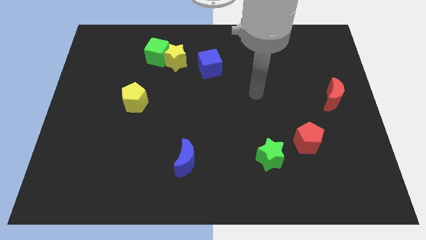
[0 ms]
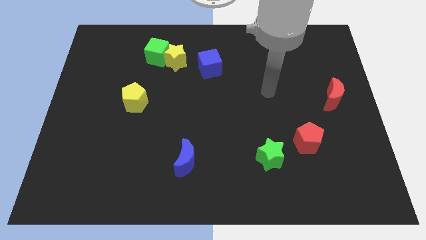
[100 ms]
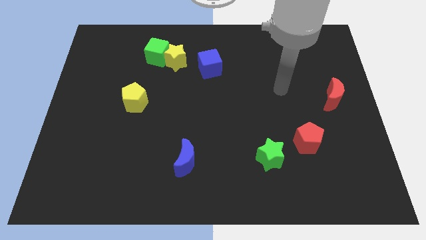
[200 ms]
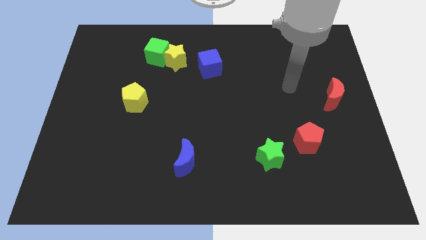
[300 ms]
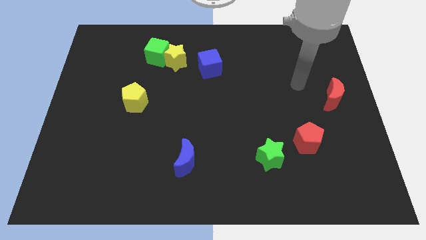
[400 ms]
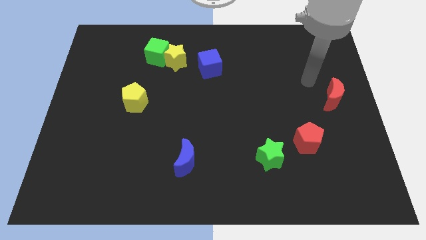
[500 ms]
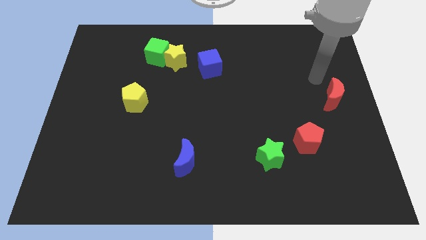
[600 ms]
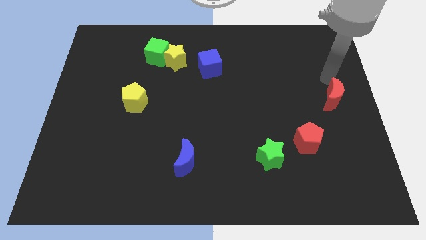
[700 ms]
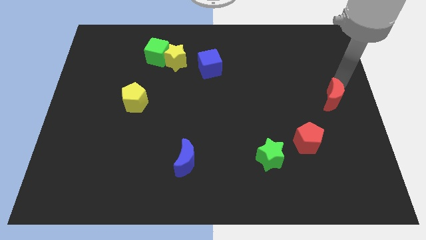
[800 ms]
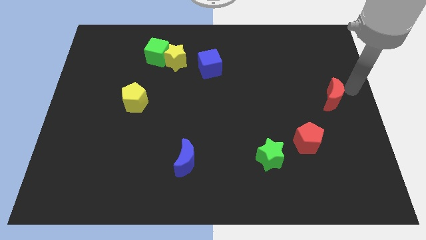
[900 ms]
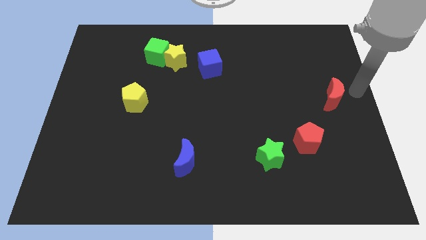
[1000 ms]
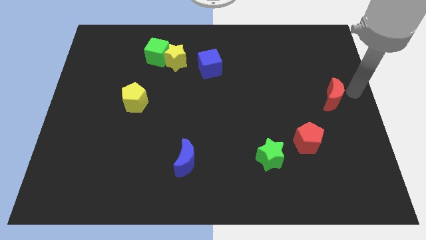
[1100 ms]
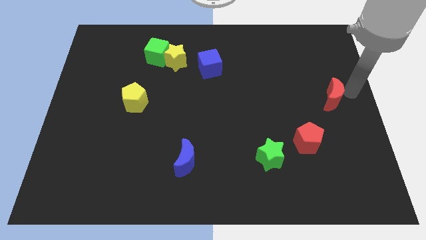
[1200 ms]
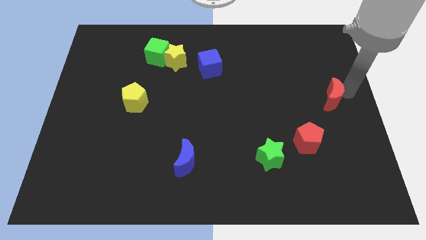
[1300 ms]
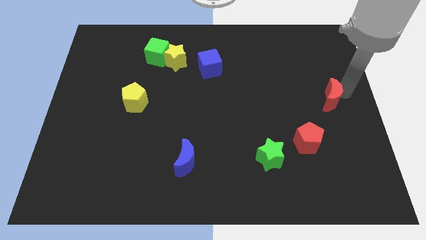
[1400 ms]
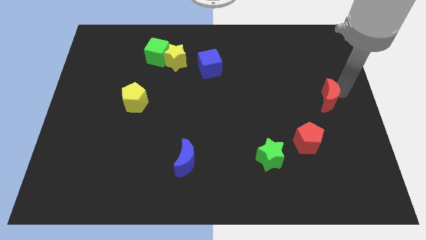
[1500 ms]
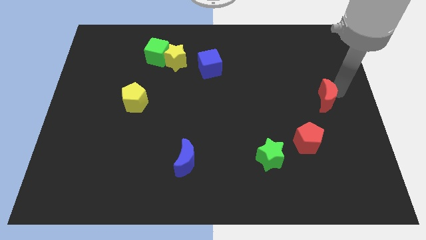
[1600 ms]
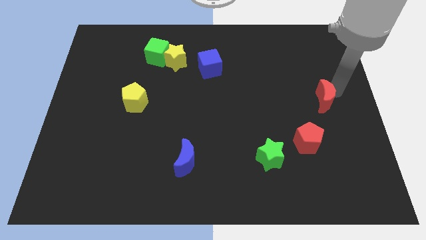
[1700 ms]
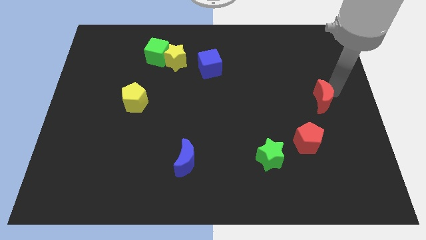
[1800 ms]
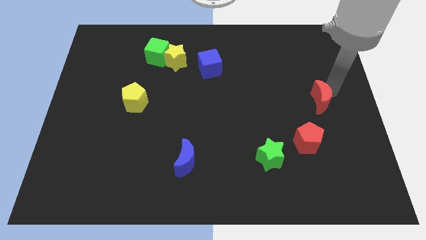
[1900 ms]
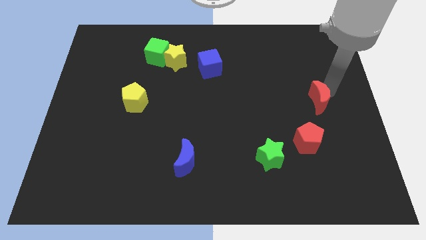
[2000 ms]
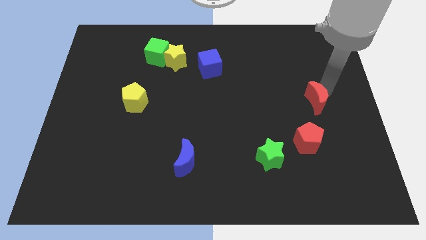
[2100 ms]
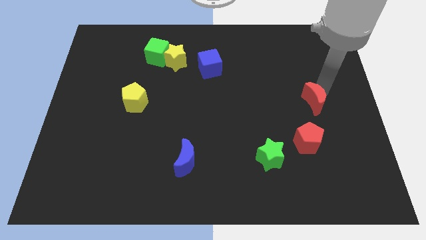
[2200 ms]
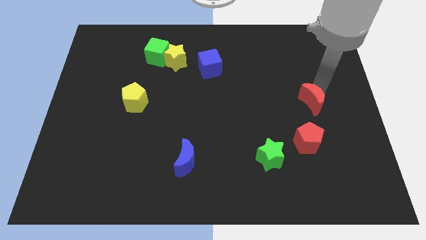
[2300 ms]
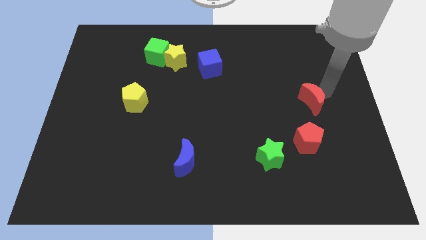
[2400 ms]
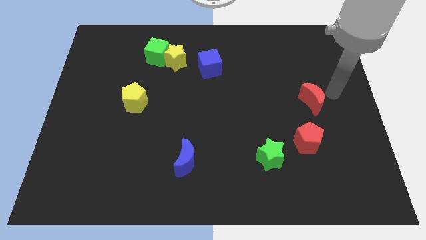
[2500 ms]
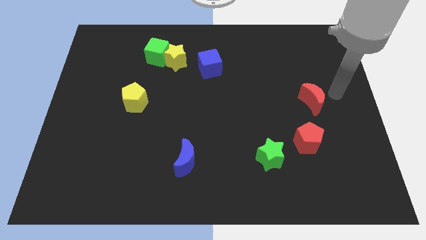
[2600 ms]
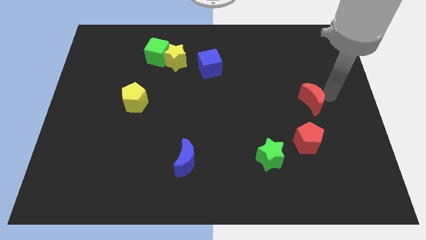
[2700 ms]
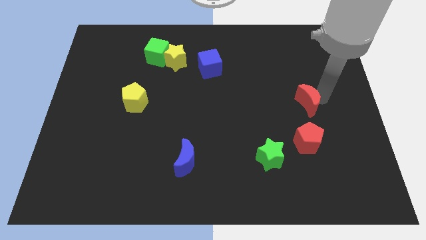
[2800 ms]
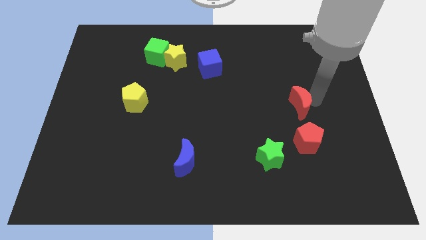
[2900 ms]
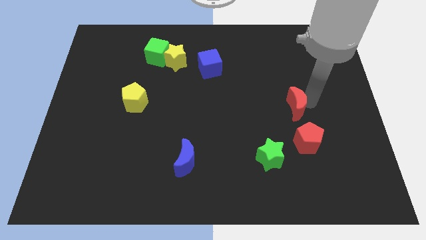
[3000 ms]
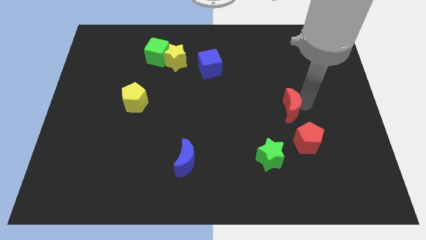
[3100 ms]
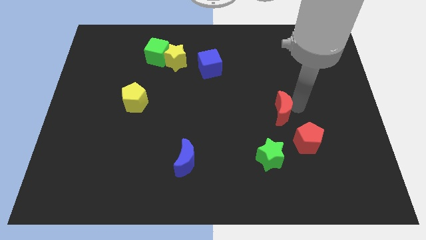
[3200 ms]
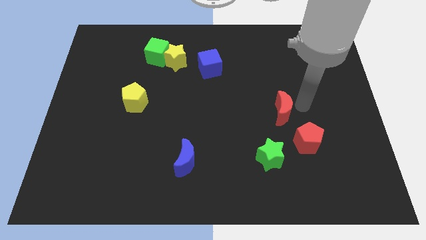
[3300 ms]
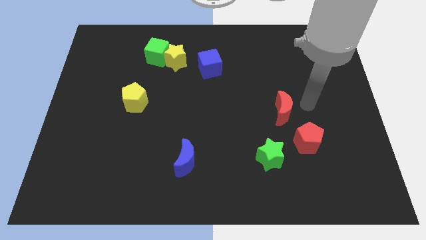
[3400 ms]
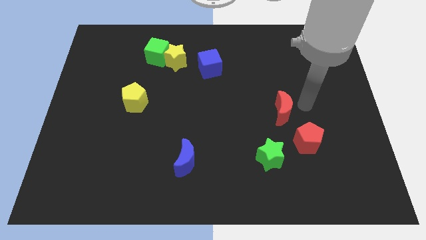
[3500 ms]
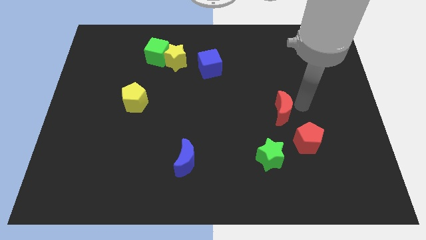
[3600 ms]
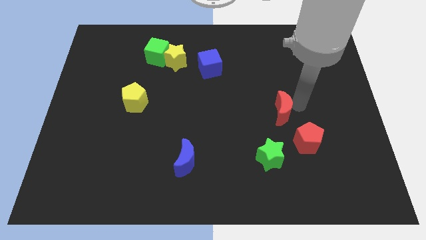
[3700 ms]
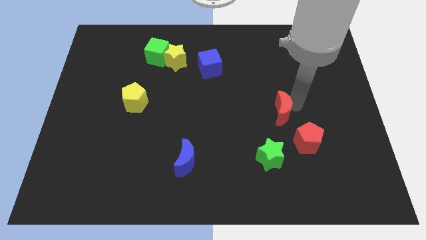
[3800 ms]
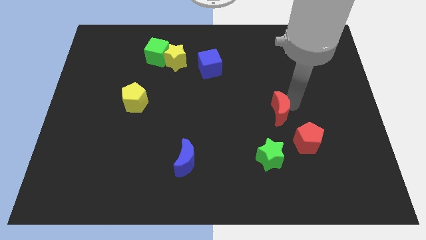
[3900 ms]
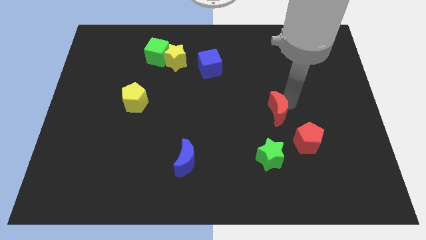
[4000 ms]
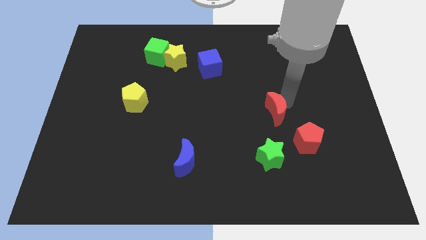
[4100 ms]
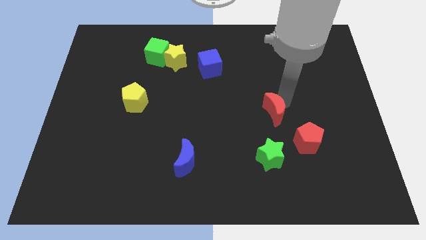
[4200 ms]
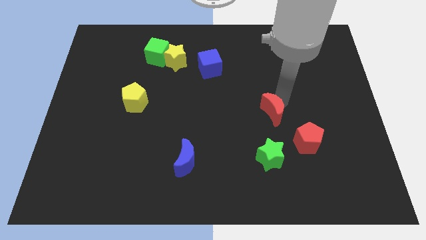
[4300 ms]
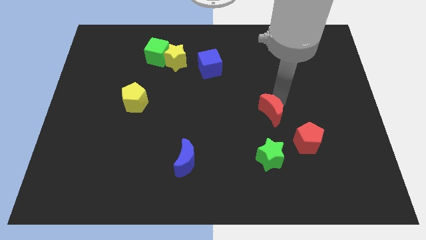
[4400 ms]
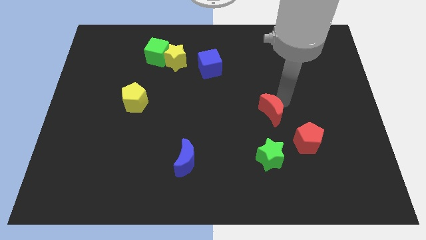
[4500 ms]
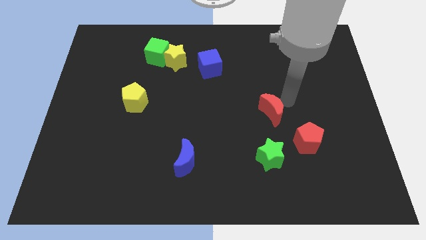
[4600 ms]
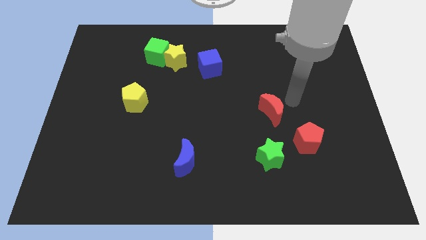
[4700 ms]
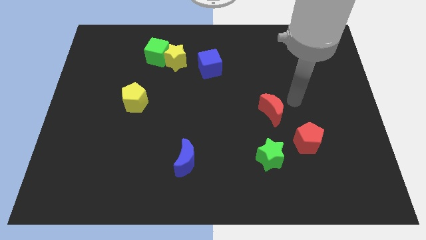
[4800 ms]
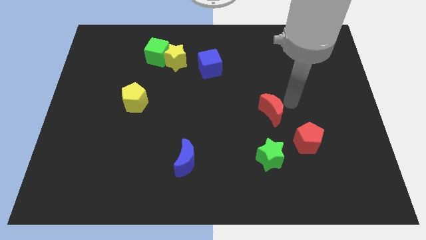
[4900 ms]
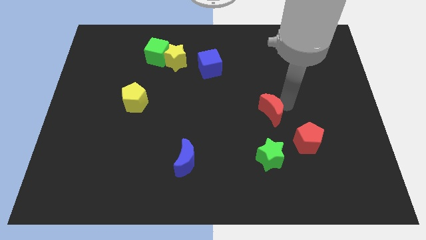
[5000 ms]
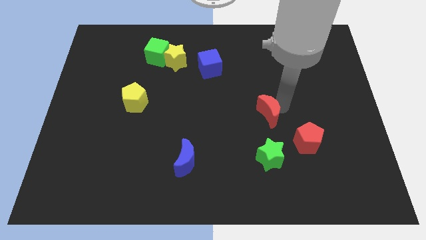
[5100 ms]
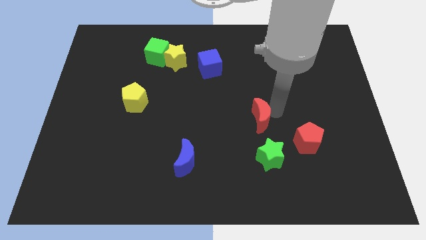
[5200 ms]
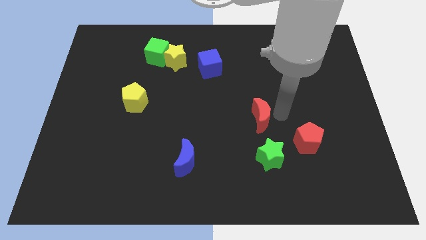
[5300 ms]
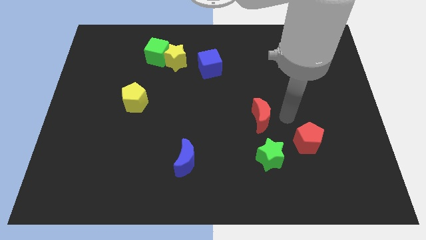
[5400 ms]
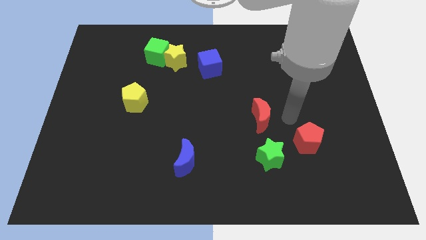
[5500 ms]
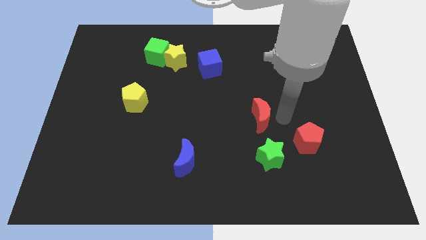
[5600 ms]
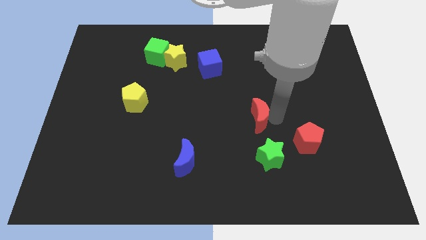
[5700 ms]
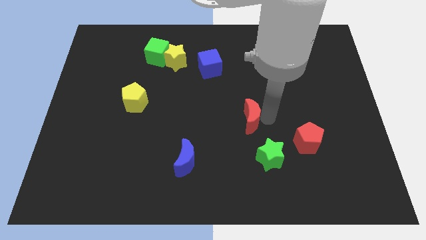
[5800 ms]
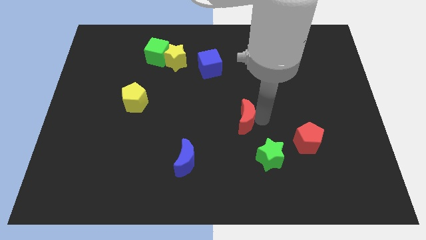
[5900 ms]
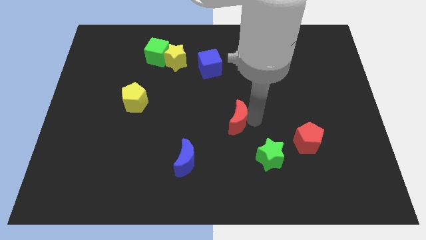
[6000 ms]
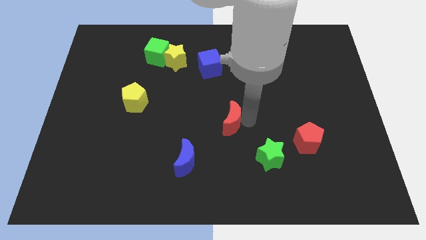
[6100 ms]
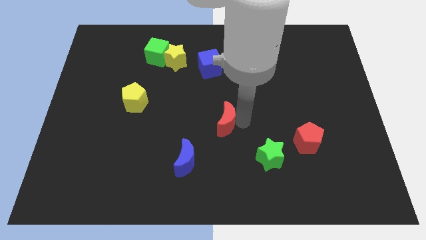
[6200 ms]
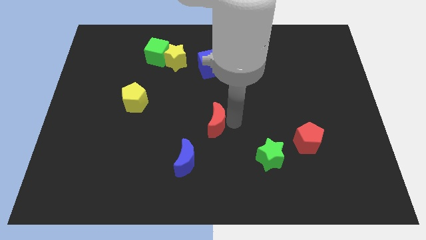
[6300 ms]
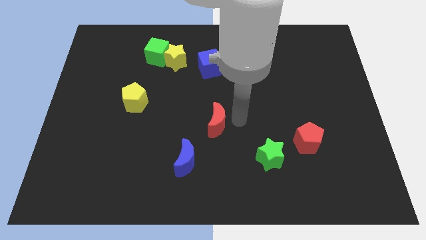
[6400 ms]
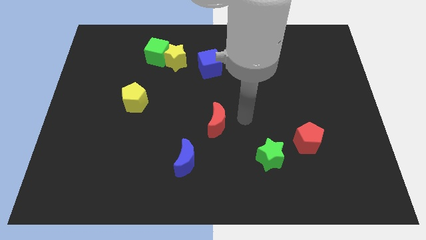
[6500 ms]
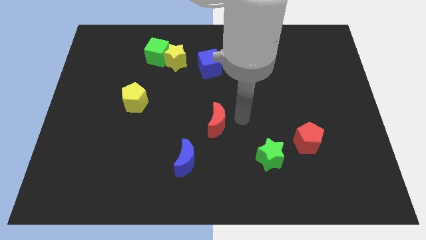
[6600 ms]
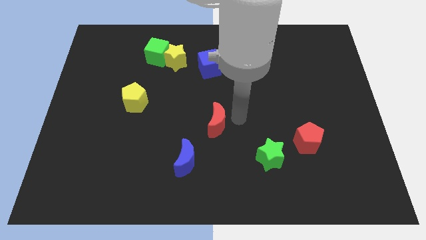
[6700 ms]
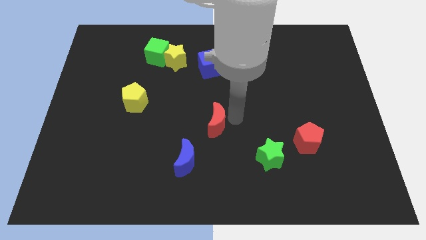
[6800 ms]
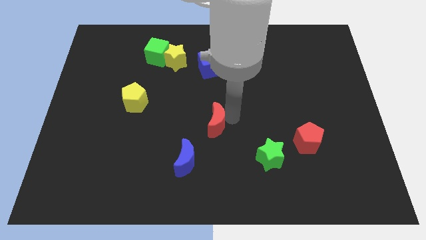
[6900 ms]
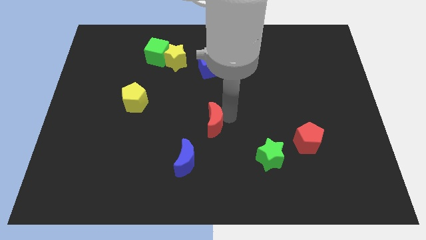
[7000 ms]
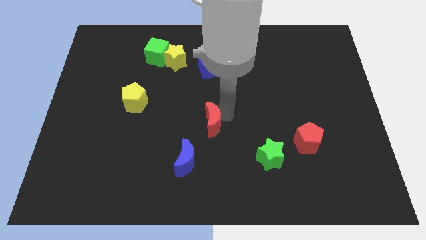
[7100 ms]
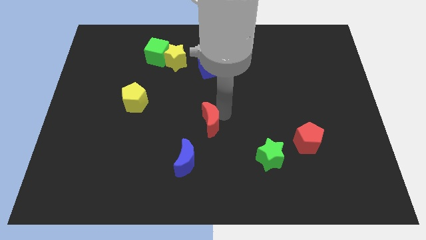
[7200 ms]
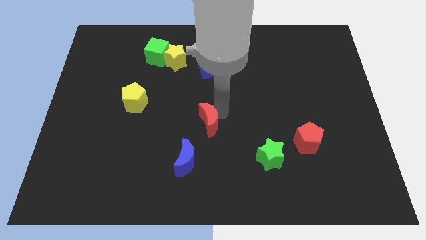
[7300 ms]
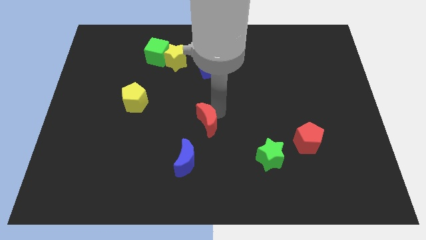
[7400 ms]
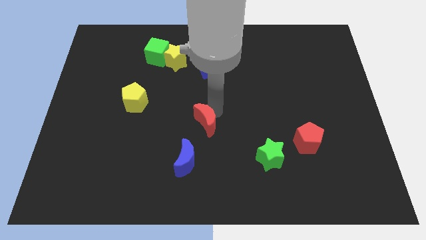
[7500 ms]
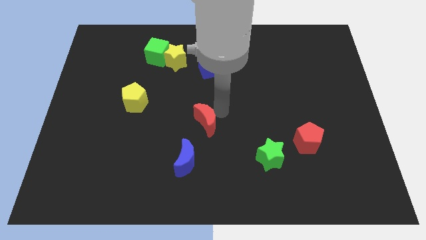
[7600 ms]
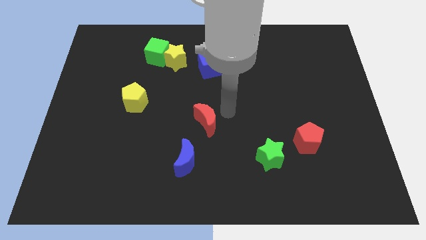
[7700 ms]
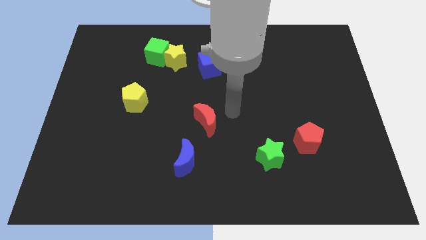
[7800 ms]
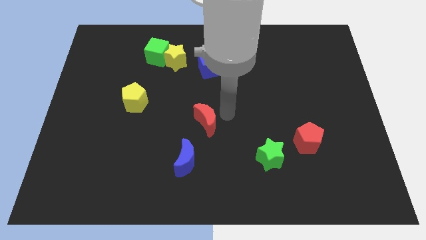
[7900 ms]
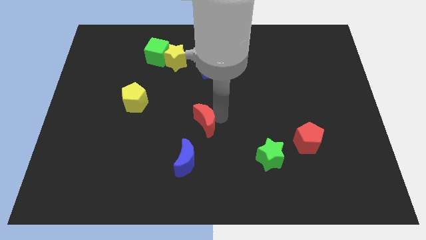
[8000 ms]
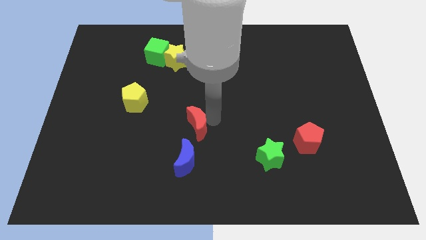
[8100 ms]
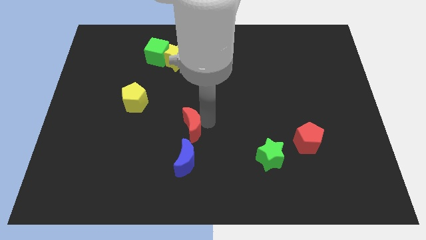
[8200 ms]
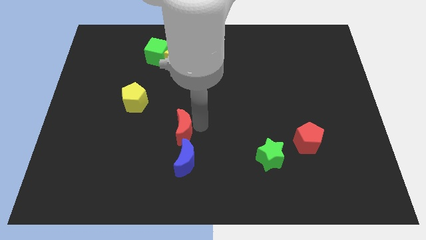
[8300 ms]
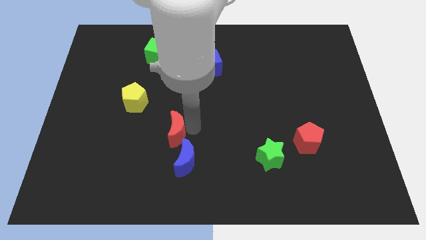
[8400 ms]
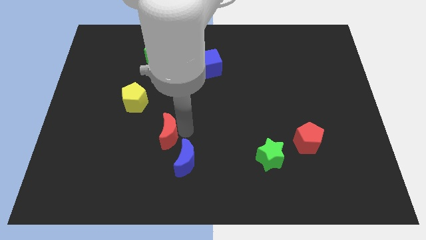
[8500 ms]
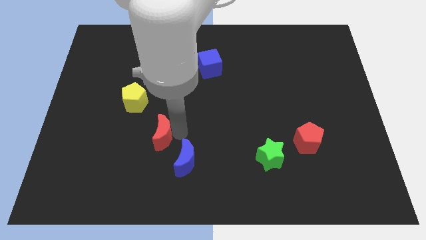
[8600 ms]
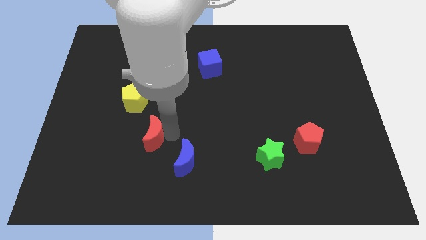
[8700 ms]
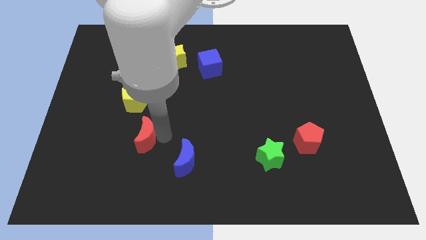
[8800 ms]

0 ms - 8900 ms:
slide the red moon below the yellow pentagon
